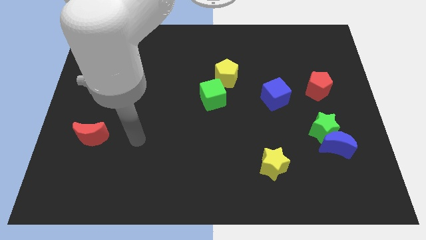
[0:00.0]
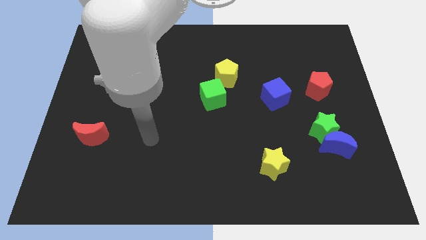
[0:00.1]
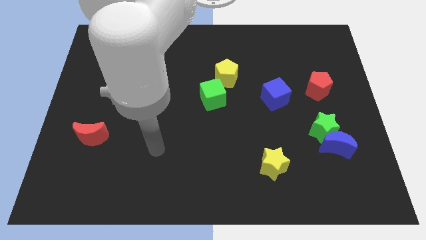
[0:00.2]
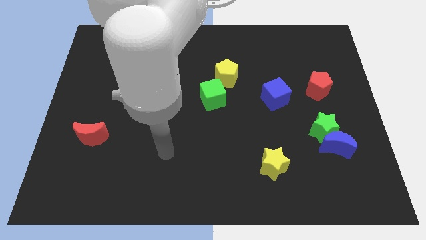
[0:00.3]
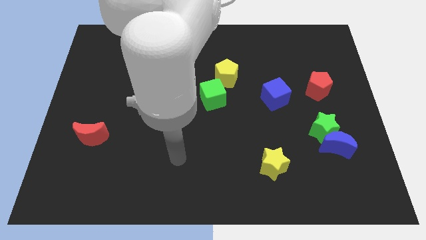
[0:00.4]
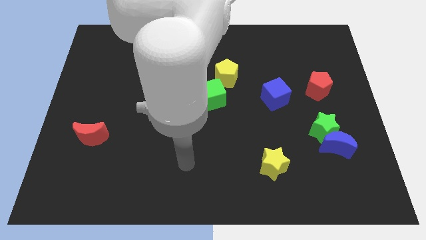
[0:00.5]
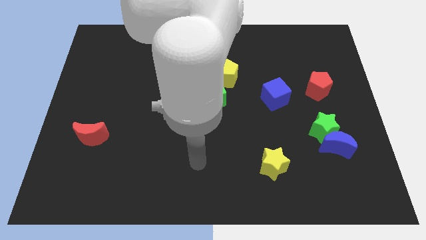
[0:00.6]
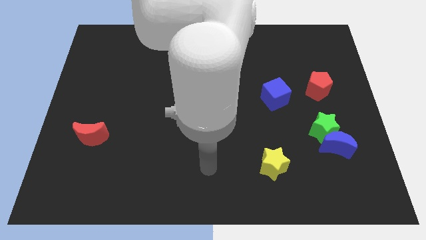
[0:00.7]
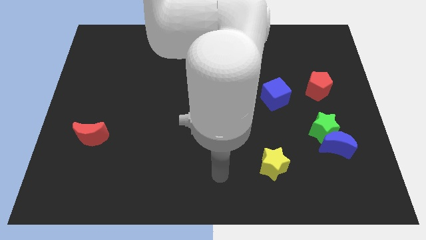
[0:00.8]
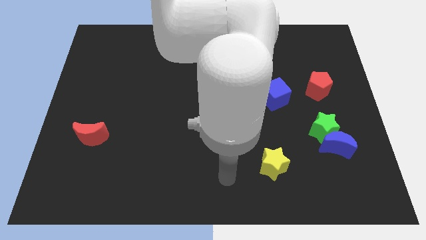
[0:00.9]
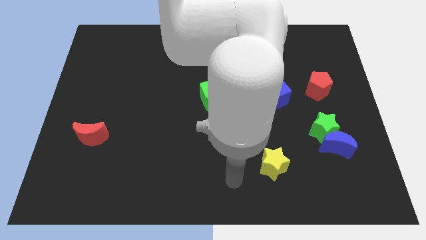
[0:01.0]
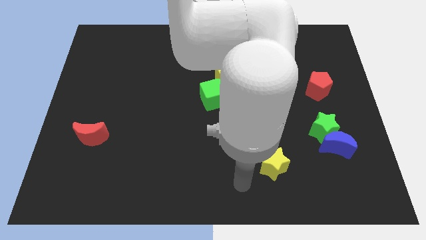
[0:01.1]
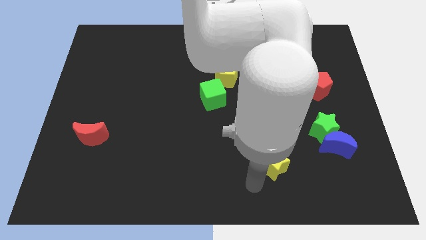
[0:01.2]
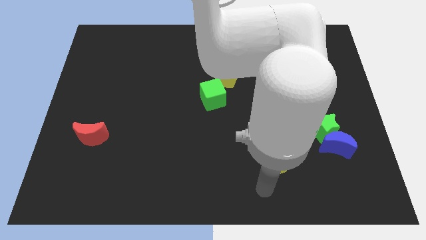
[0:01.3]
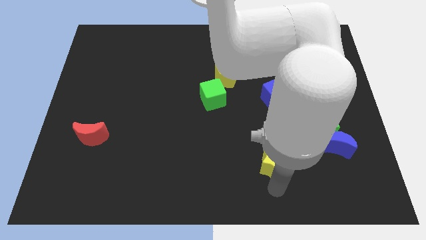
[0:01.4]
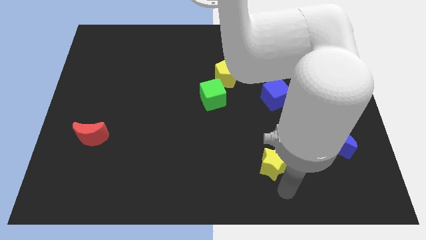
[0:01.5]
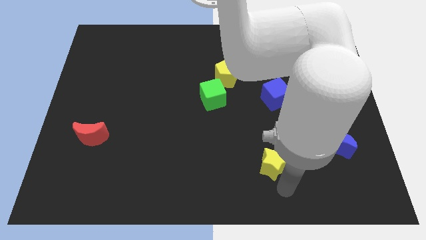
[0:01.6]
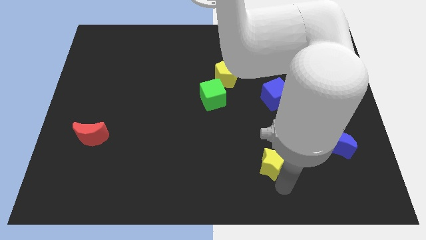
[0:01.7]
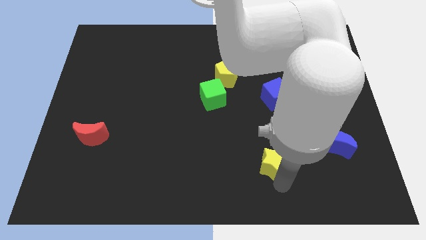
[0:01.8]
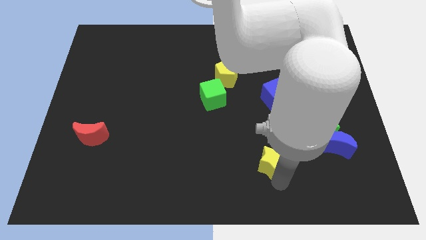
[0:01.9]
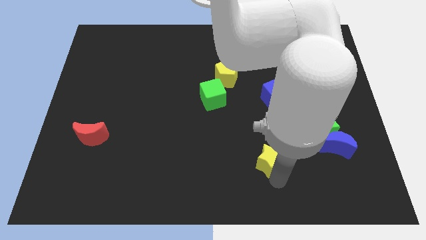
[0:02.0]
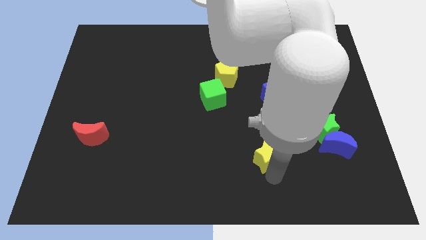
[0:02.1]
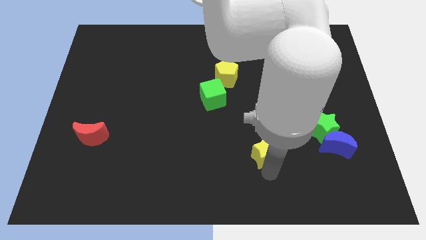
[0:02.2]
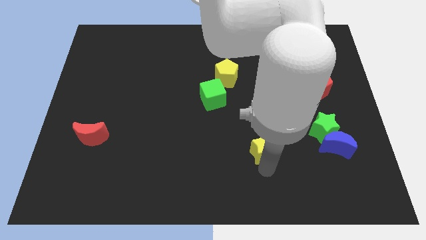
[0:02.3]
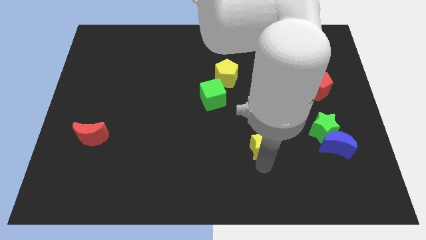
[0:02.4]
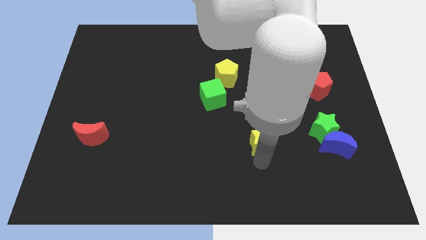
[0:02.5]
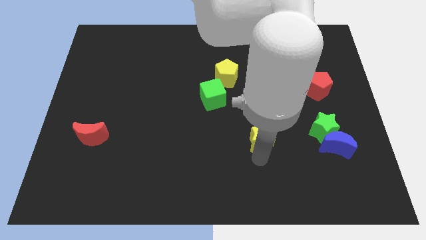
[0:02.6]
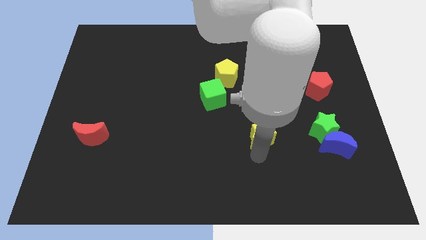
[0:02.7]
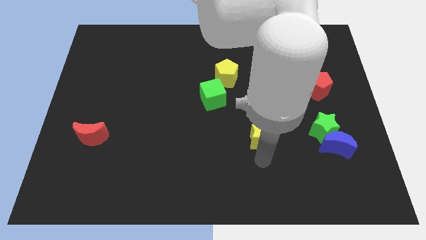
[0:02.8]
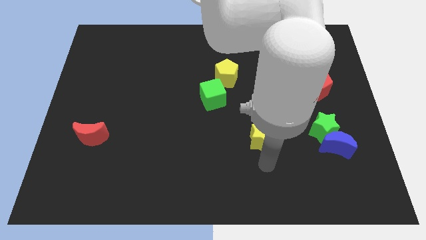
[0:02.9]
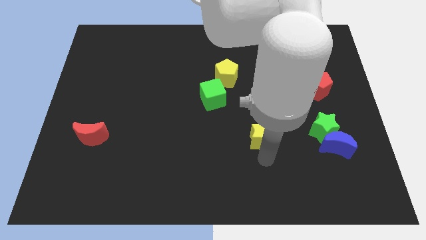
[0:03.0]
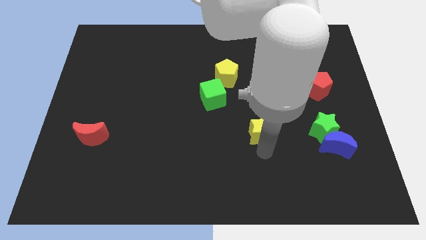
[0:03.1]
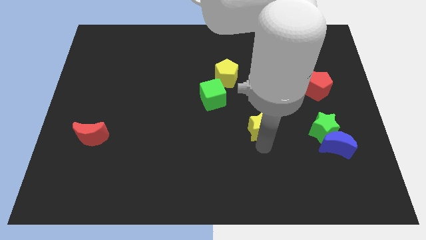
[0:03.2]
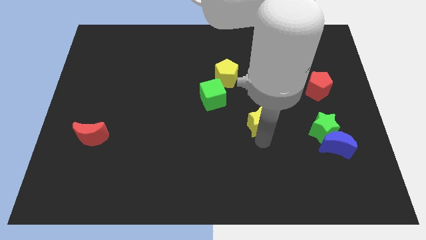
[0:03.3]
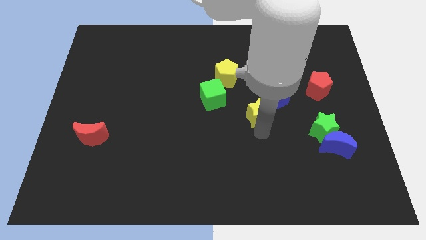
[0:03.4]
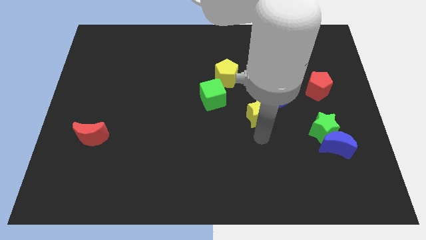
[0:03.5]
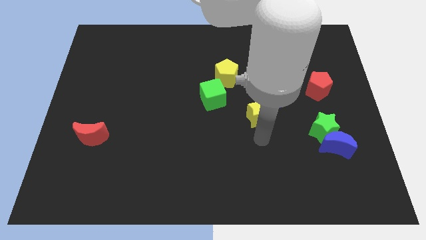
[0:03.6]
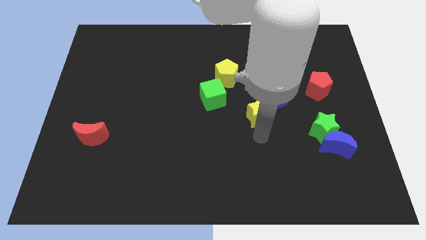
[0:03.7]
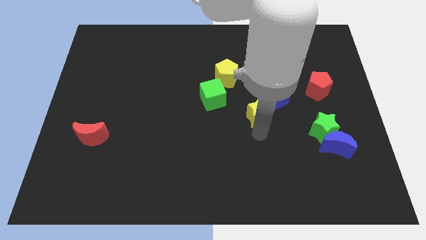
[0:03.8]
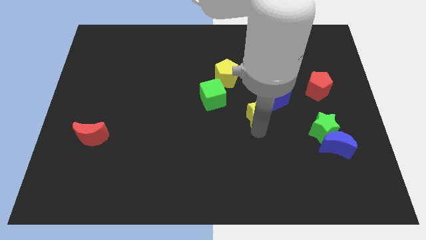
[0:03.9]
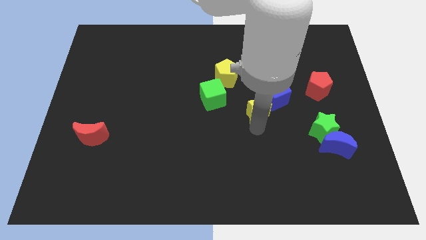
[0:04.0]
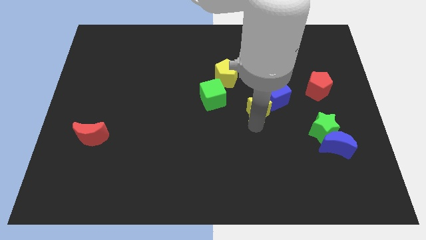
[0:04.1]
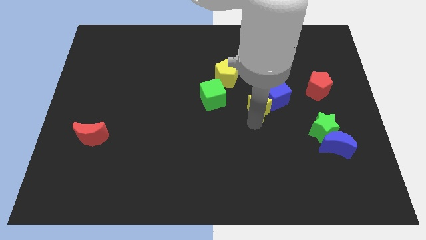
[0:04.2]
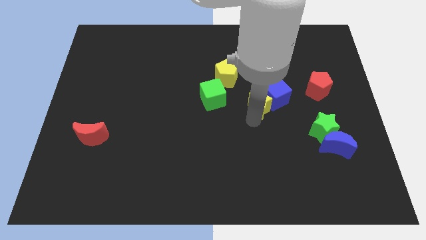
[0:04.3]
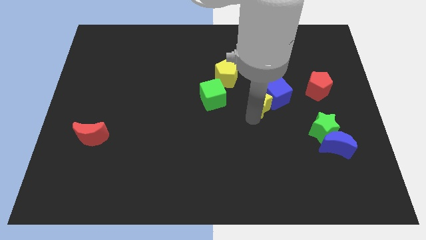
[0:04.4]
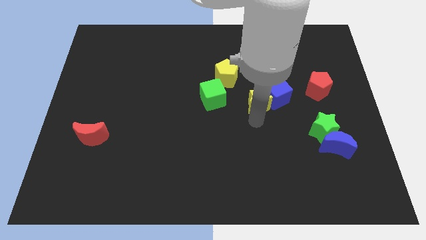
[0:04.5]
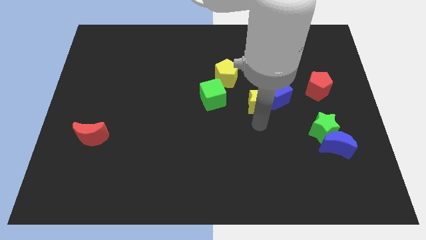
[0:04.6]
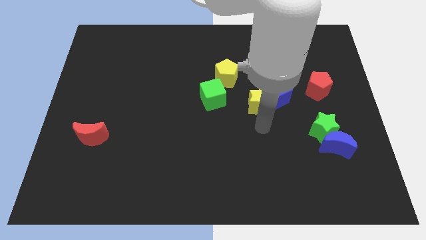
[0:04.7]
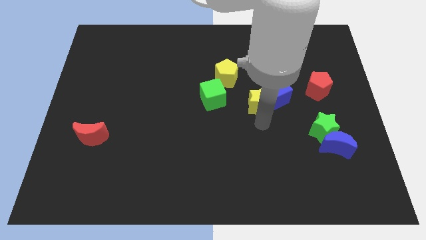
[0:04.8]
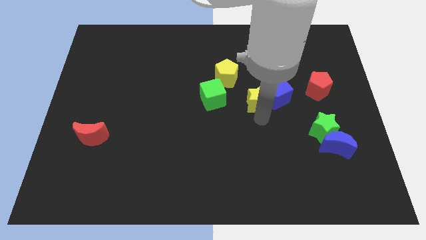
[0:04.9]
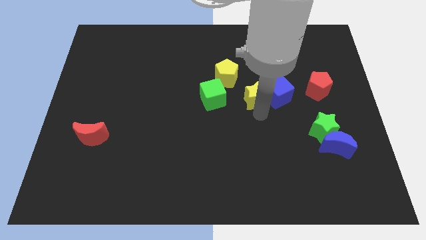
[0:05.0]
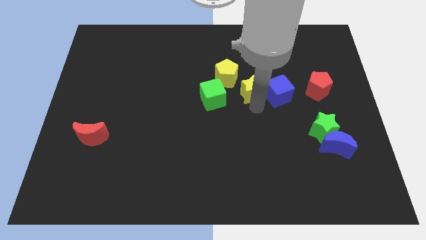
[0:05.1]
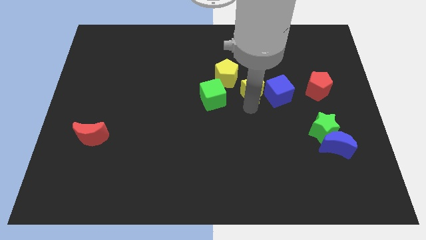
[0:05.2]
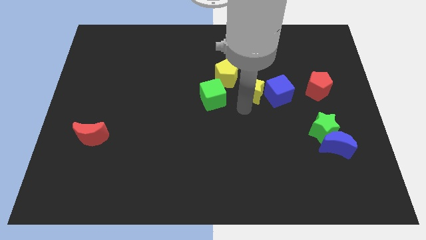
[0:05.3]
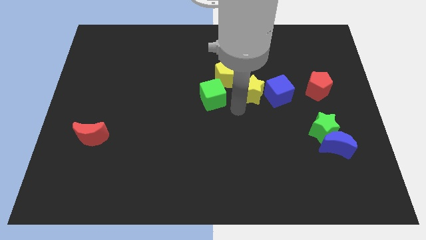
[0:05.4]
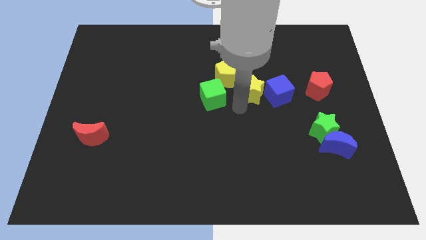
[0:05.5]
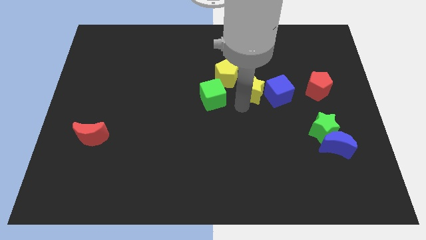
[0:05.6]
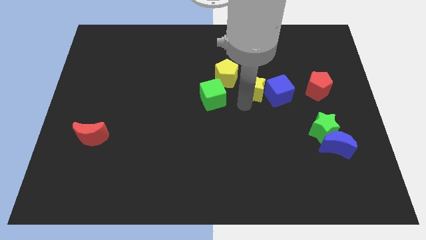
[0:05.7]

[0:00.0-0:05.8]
move the yellow star right of the yellow pentagon

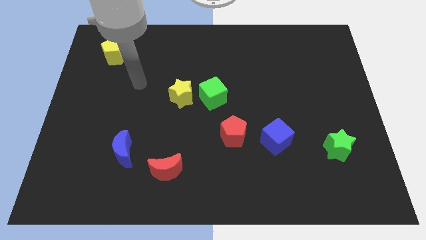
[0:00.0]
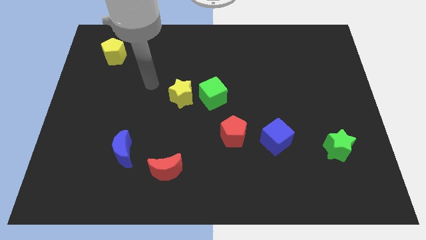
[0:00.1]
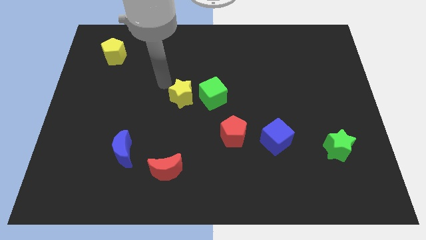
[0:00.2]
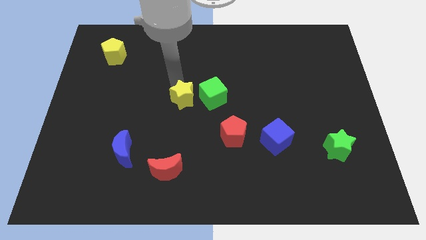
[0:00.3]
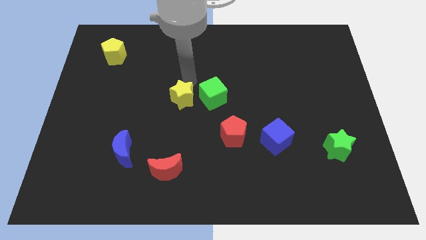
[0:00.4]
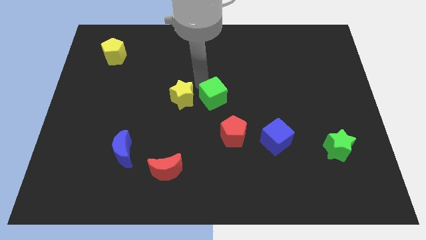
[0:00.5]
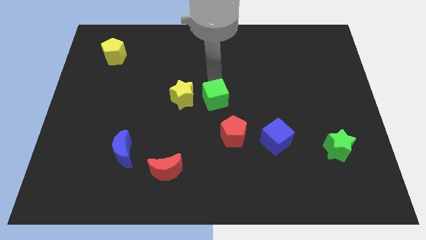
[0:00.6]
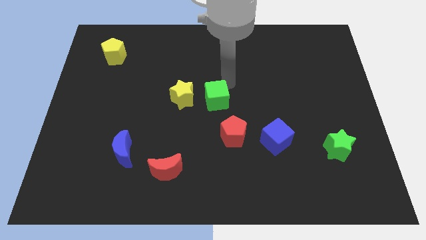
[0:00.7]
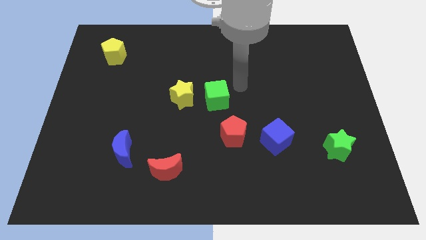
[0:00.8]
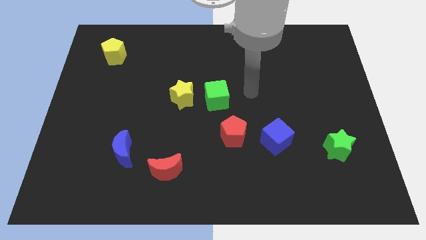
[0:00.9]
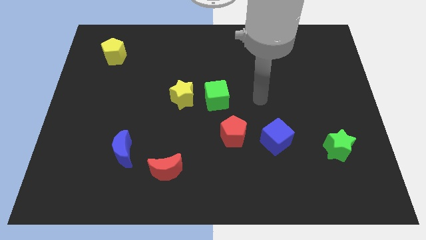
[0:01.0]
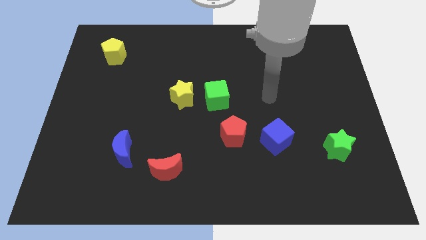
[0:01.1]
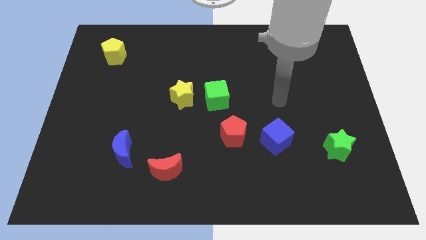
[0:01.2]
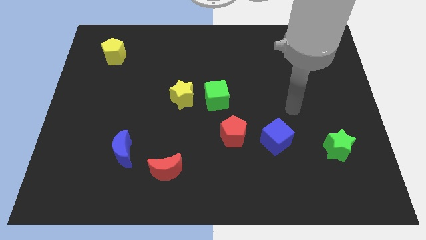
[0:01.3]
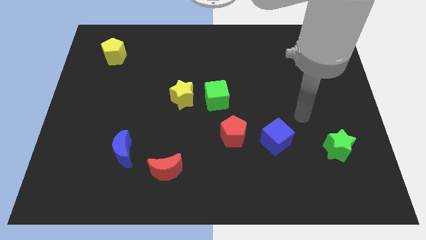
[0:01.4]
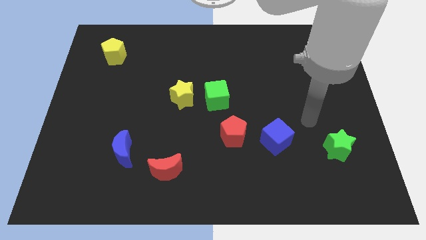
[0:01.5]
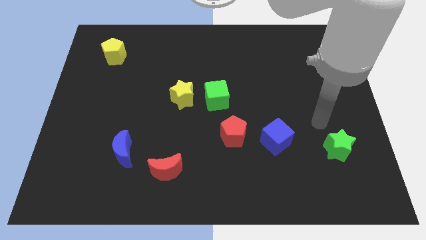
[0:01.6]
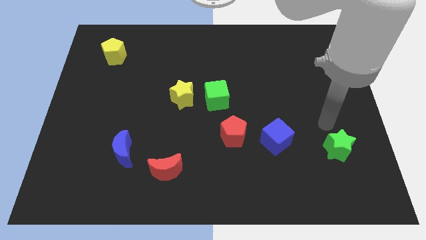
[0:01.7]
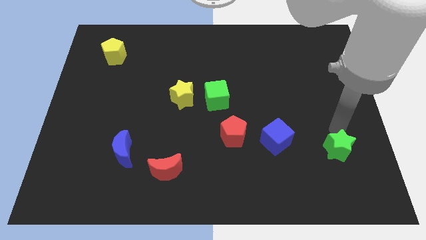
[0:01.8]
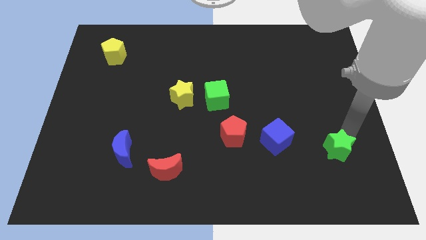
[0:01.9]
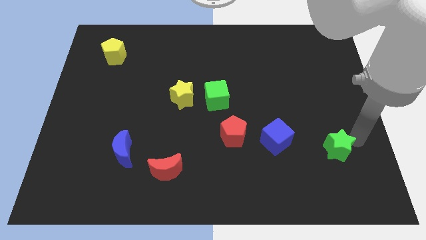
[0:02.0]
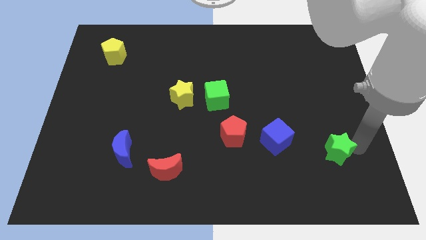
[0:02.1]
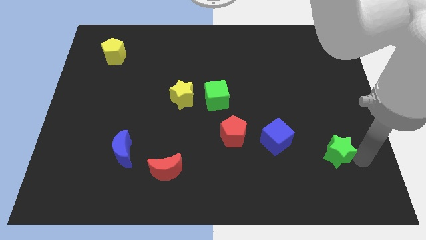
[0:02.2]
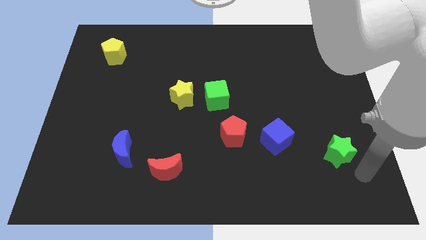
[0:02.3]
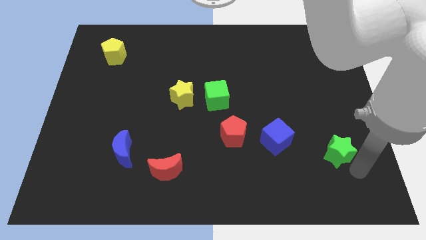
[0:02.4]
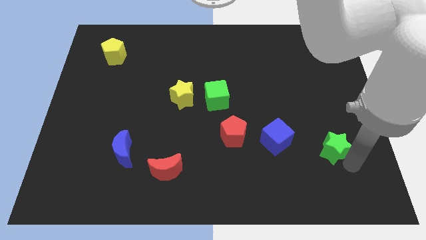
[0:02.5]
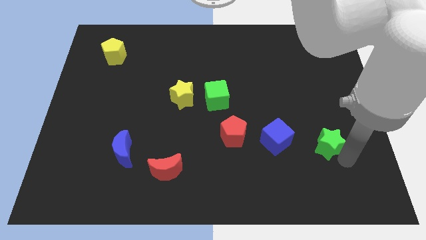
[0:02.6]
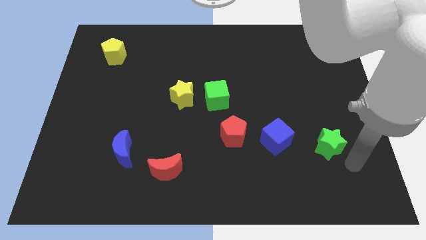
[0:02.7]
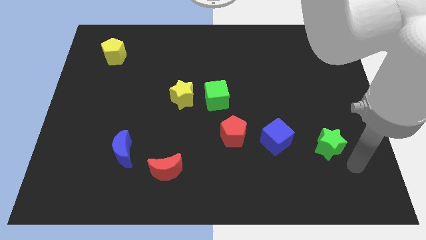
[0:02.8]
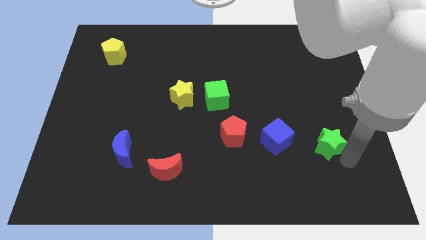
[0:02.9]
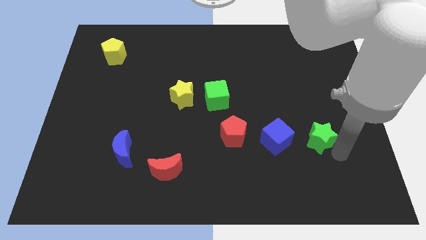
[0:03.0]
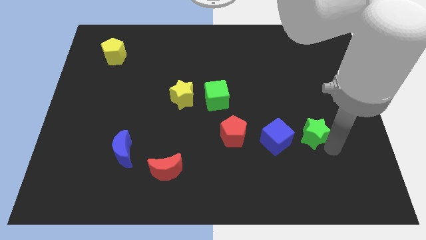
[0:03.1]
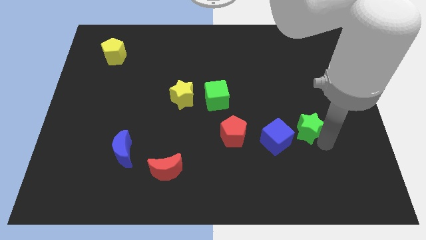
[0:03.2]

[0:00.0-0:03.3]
slide the green star to the top right of the blue cube
